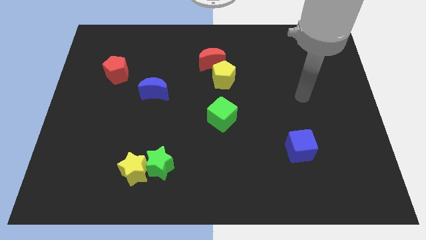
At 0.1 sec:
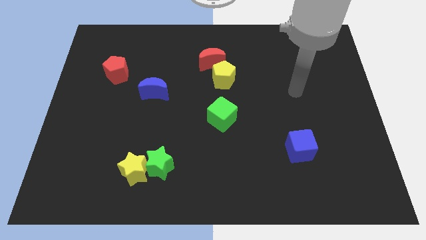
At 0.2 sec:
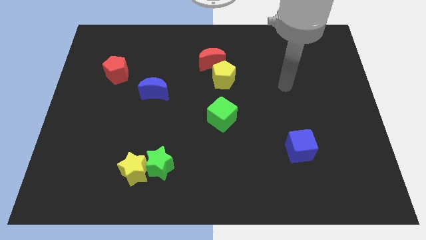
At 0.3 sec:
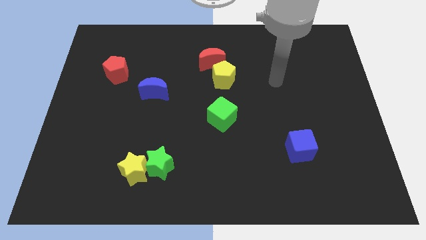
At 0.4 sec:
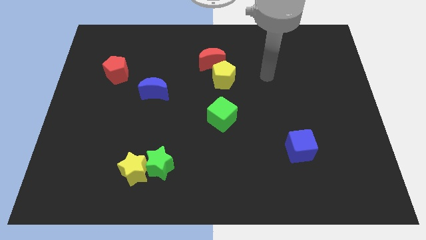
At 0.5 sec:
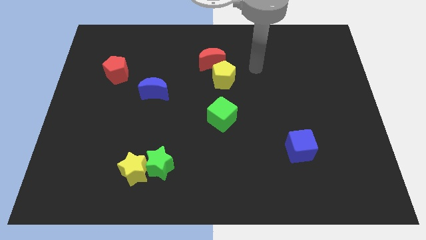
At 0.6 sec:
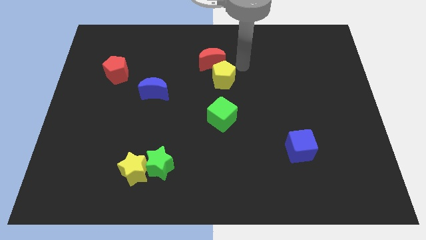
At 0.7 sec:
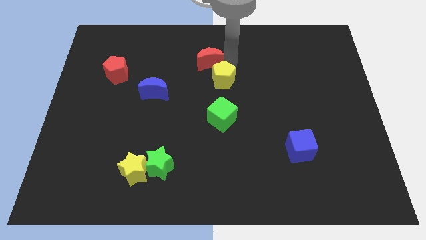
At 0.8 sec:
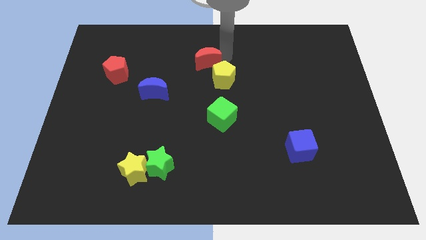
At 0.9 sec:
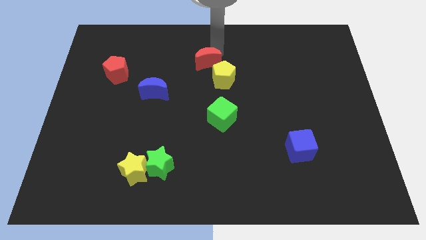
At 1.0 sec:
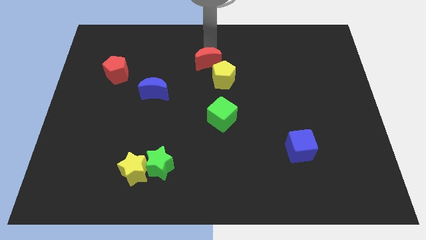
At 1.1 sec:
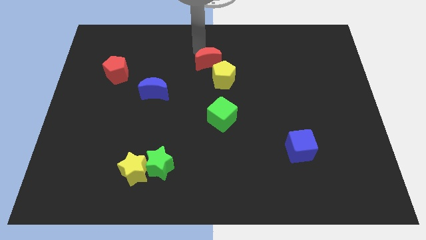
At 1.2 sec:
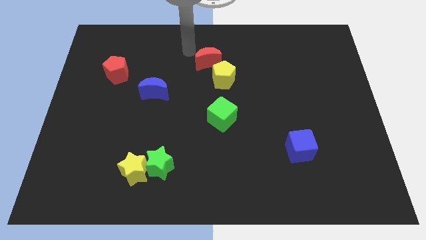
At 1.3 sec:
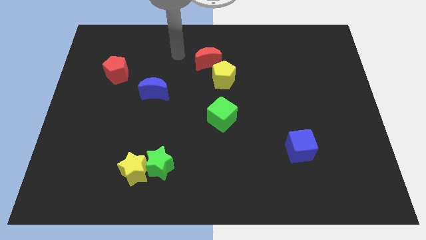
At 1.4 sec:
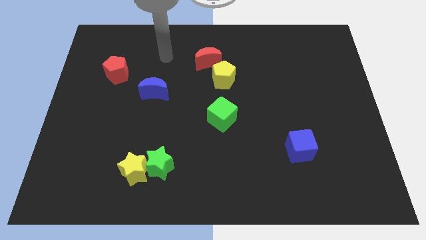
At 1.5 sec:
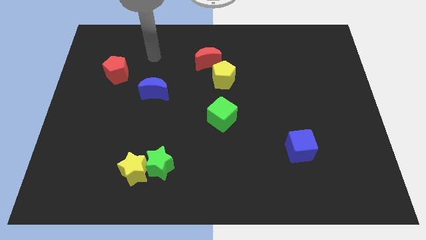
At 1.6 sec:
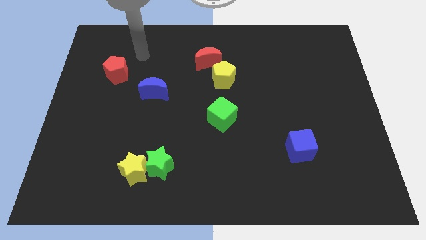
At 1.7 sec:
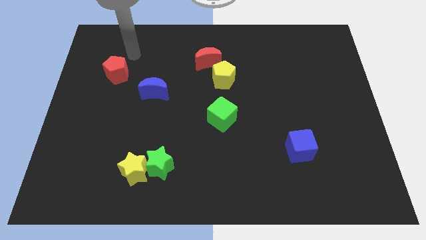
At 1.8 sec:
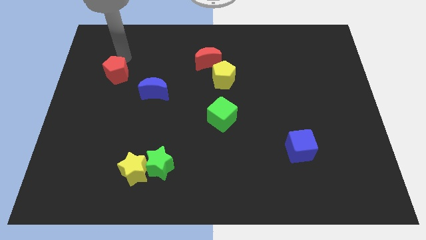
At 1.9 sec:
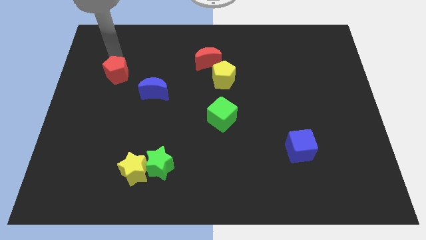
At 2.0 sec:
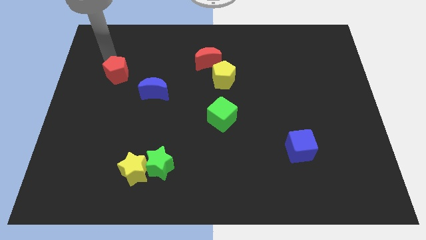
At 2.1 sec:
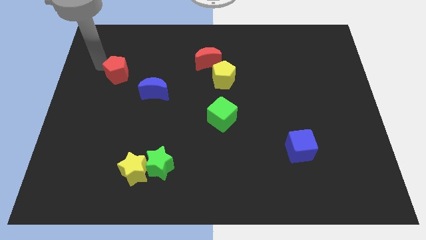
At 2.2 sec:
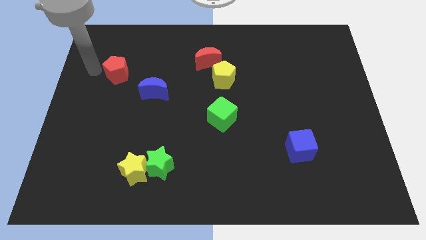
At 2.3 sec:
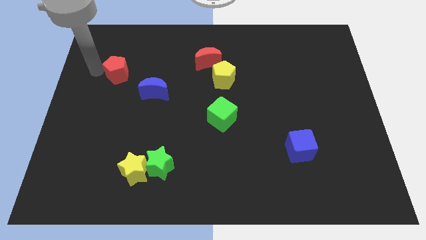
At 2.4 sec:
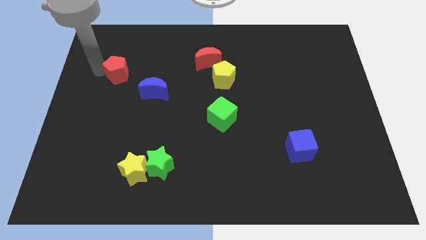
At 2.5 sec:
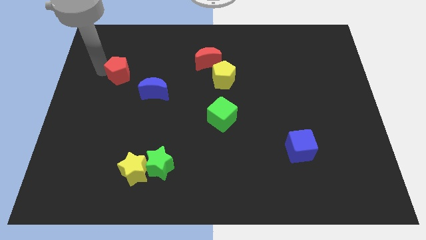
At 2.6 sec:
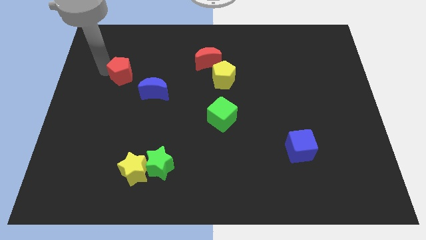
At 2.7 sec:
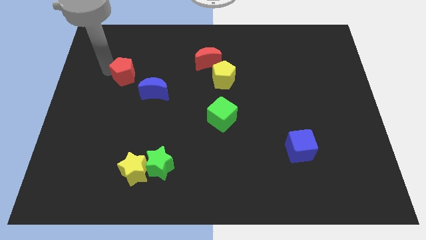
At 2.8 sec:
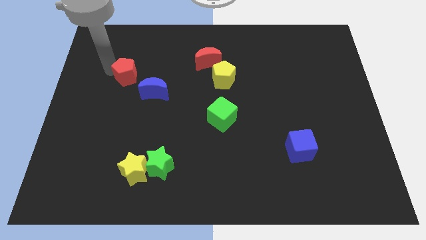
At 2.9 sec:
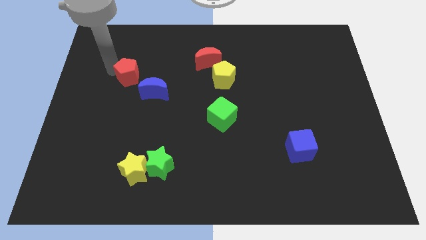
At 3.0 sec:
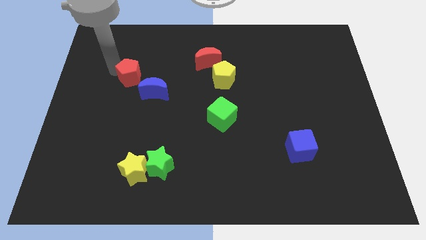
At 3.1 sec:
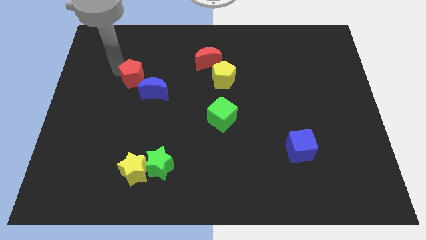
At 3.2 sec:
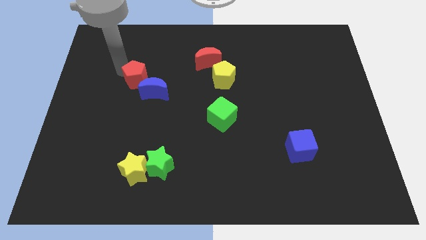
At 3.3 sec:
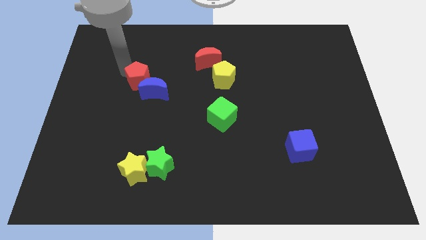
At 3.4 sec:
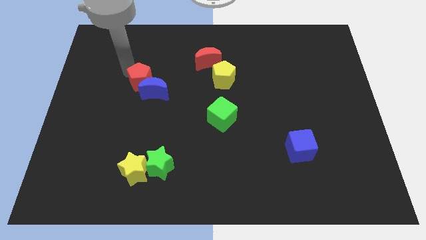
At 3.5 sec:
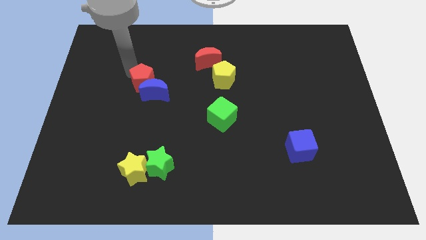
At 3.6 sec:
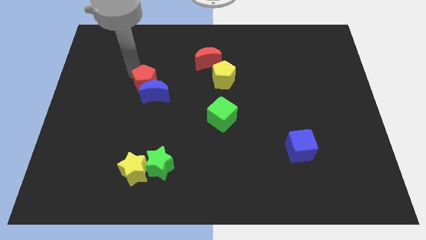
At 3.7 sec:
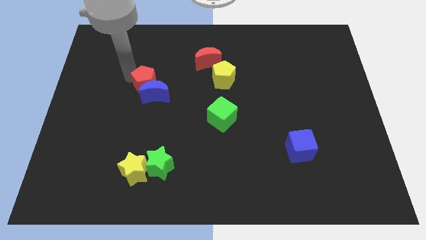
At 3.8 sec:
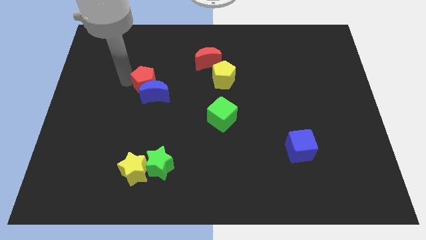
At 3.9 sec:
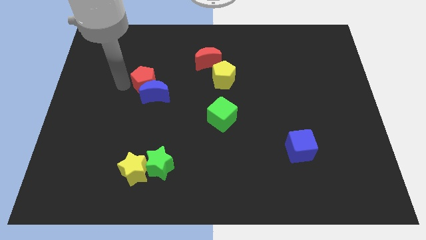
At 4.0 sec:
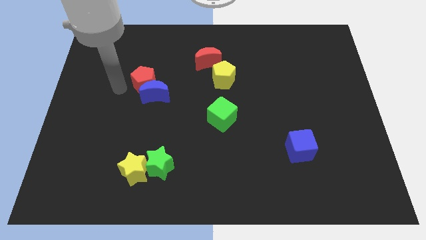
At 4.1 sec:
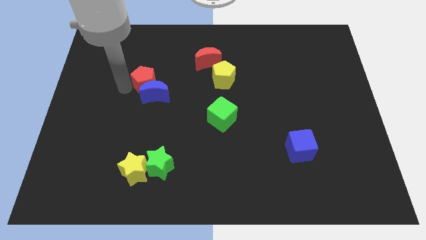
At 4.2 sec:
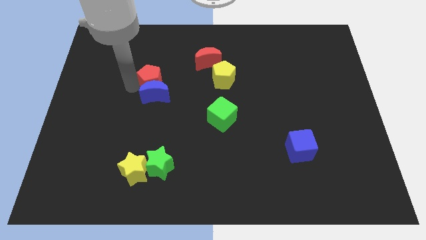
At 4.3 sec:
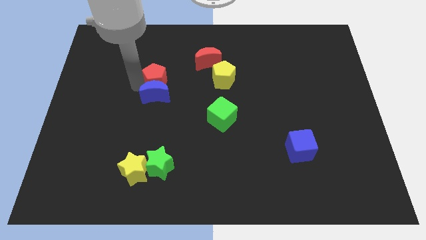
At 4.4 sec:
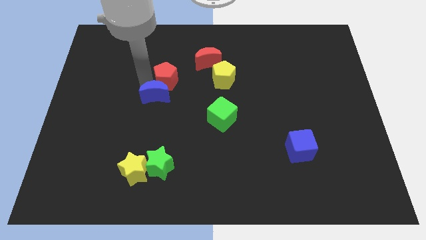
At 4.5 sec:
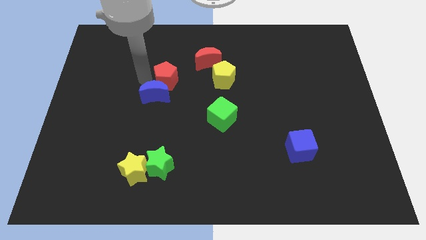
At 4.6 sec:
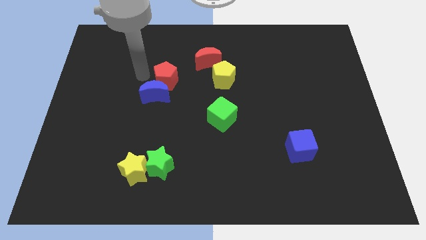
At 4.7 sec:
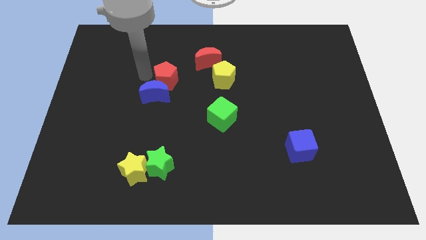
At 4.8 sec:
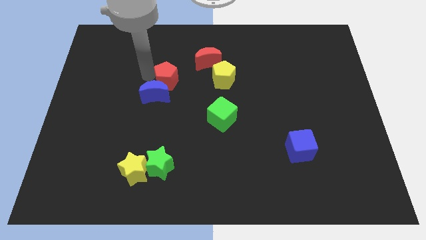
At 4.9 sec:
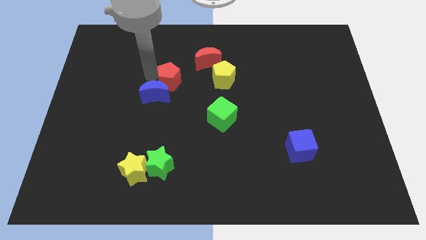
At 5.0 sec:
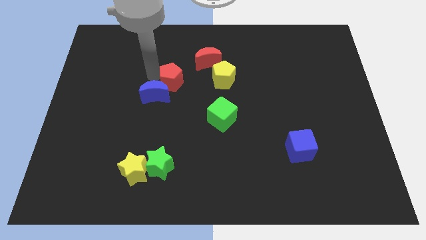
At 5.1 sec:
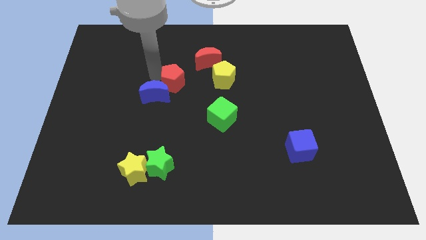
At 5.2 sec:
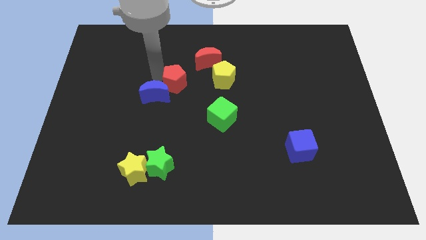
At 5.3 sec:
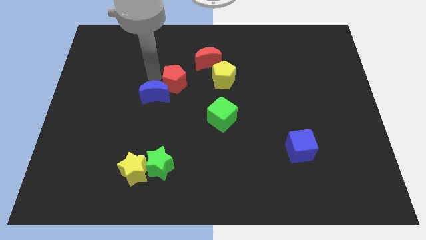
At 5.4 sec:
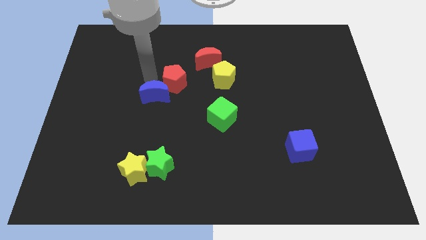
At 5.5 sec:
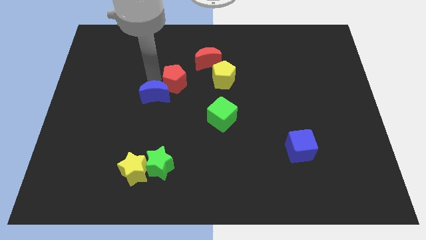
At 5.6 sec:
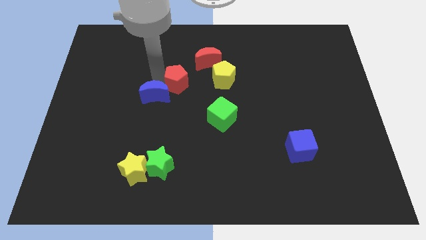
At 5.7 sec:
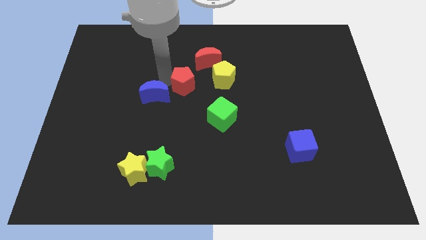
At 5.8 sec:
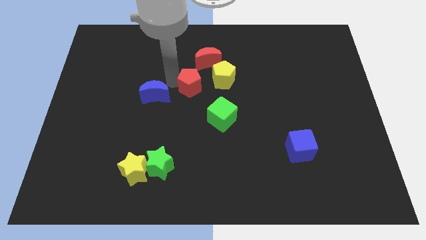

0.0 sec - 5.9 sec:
move the red pentagon to the bottom left of the yellow pentagon

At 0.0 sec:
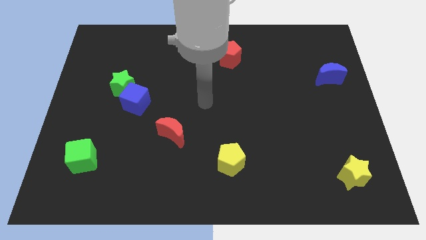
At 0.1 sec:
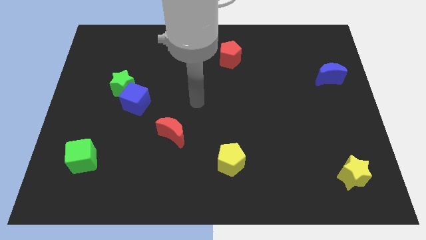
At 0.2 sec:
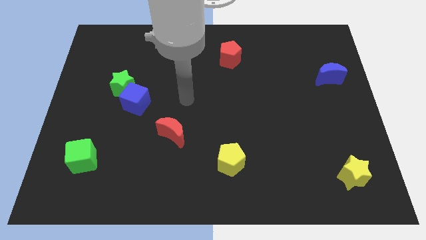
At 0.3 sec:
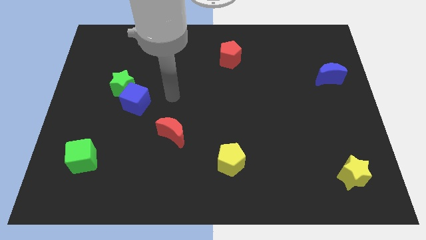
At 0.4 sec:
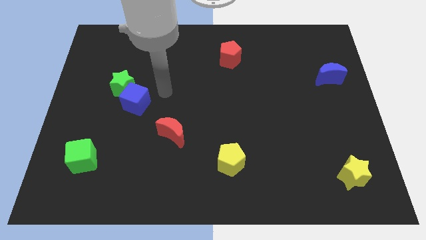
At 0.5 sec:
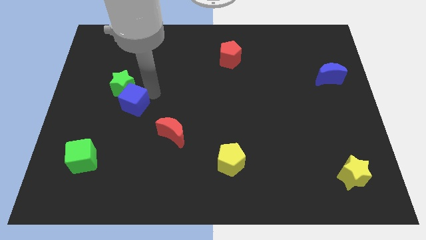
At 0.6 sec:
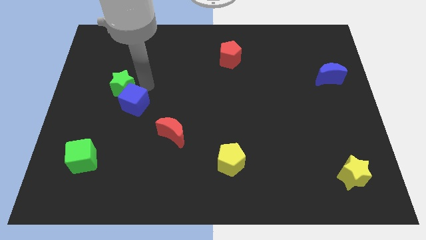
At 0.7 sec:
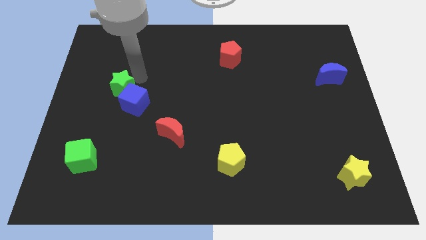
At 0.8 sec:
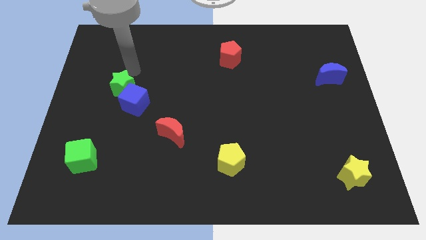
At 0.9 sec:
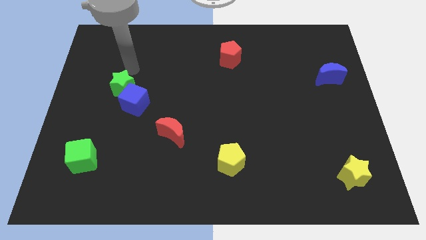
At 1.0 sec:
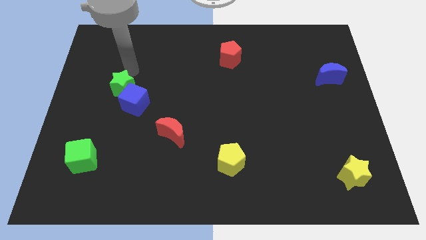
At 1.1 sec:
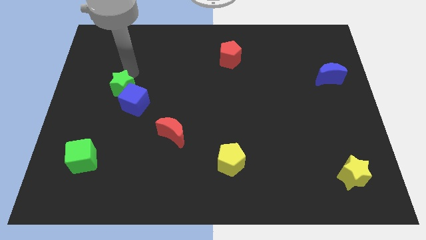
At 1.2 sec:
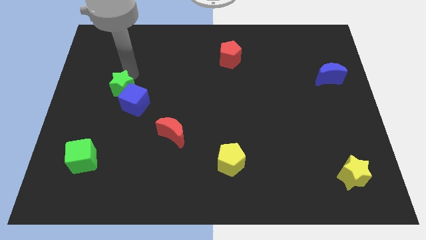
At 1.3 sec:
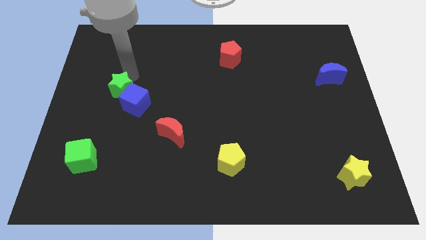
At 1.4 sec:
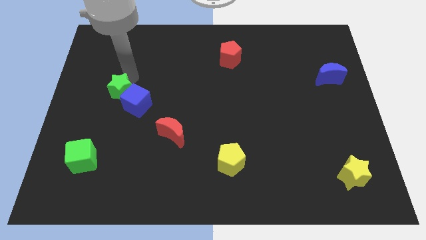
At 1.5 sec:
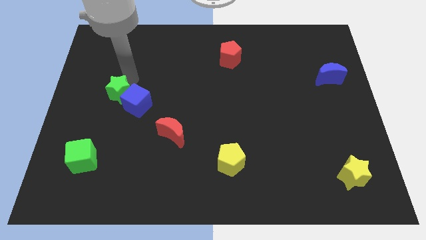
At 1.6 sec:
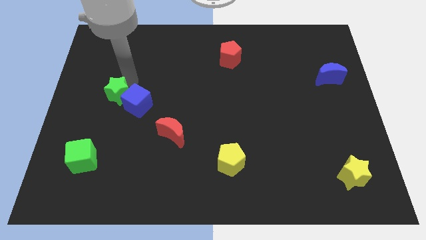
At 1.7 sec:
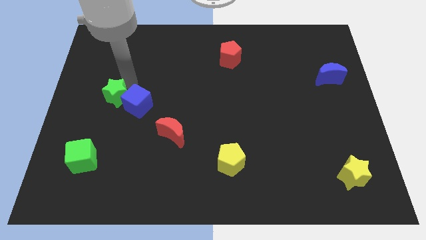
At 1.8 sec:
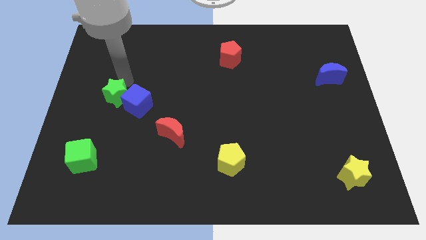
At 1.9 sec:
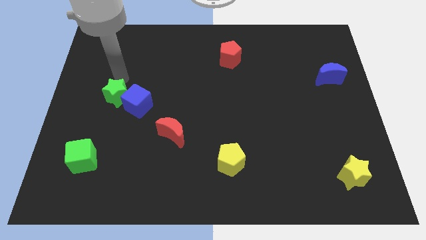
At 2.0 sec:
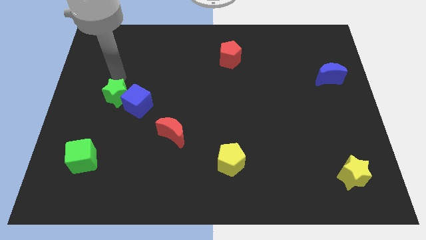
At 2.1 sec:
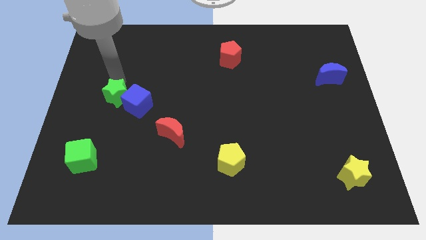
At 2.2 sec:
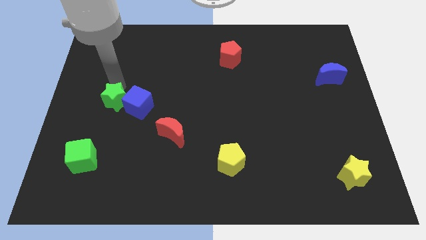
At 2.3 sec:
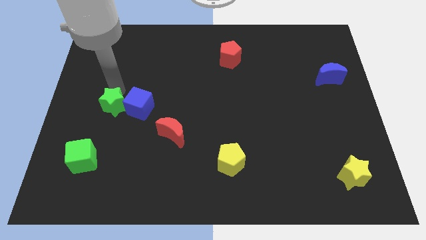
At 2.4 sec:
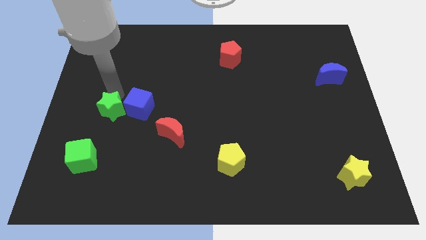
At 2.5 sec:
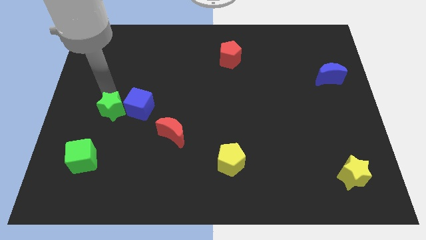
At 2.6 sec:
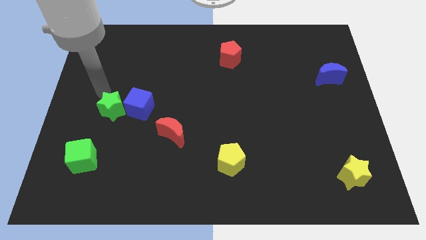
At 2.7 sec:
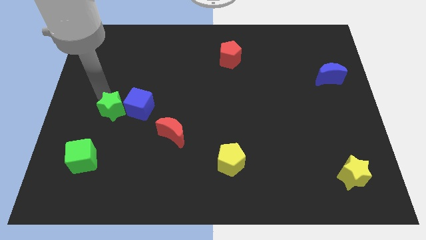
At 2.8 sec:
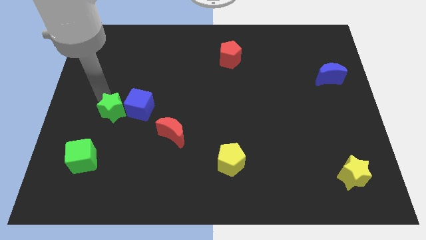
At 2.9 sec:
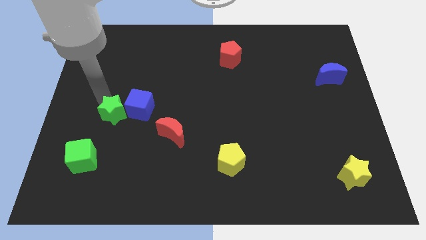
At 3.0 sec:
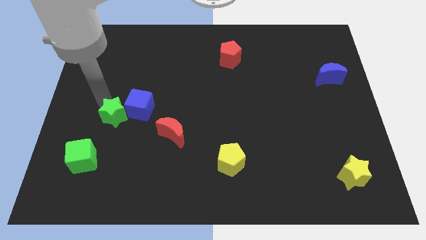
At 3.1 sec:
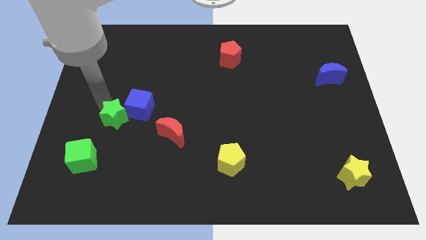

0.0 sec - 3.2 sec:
move the green star to the left side of the red moon
